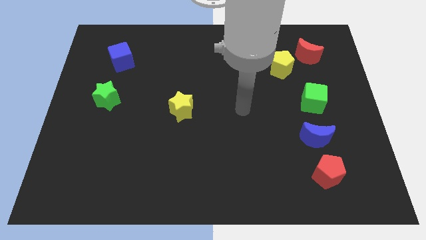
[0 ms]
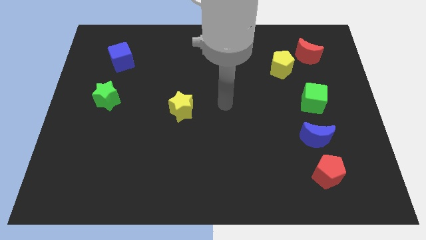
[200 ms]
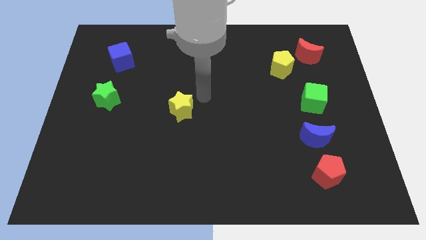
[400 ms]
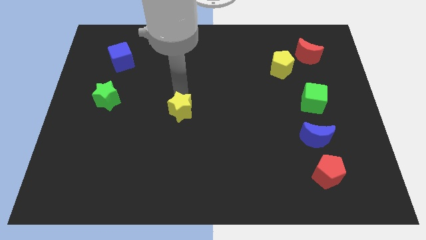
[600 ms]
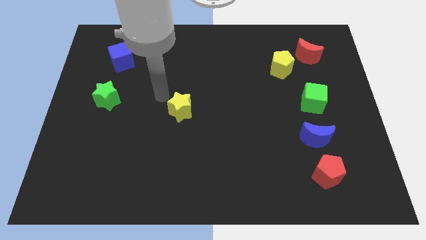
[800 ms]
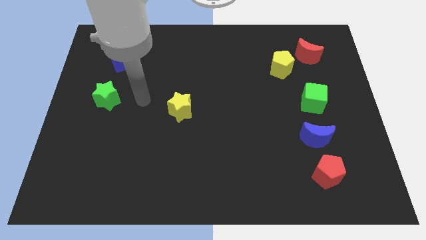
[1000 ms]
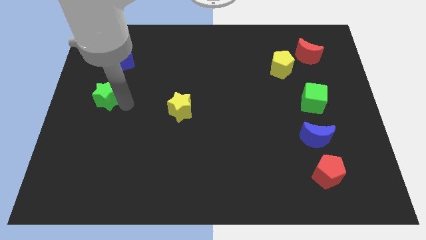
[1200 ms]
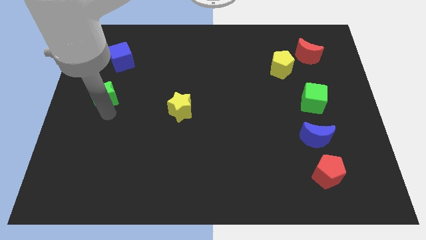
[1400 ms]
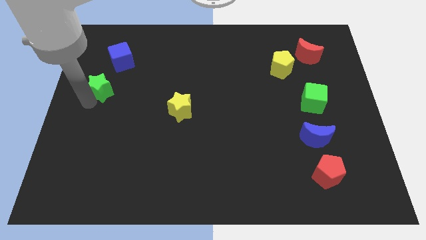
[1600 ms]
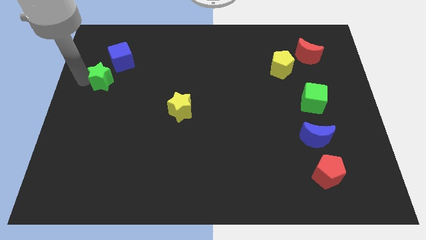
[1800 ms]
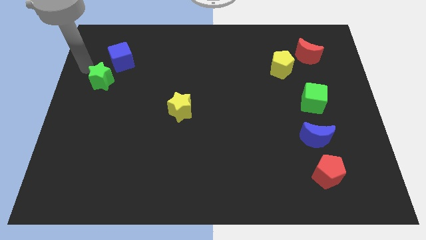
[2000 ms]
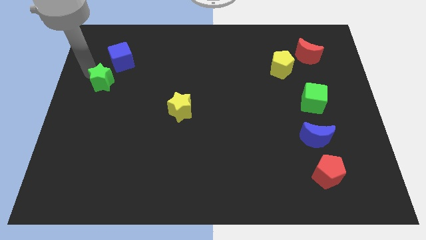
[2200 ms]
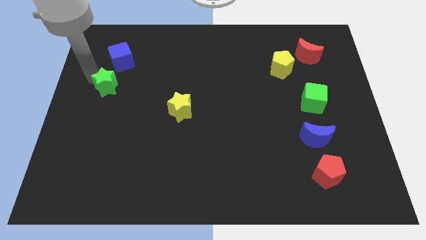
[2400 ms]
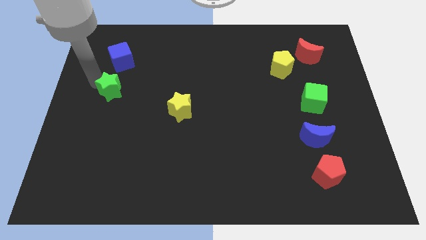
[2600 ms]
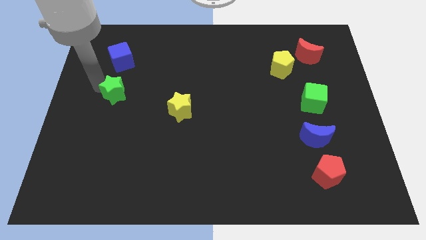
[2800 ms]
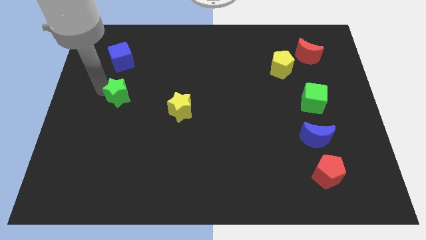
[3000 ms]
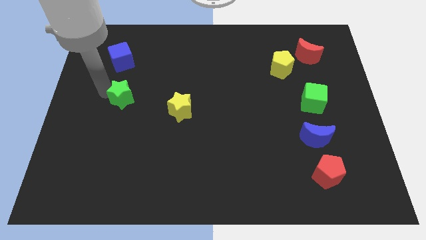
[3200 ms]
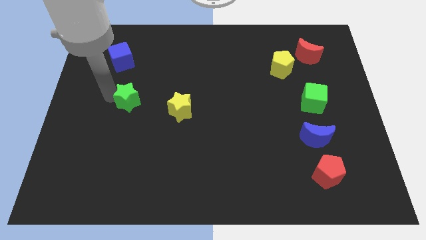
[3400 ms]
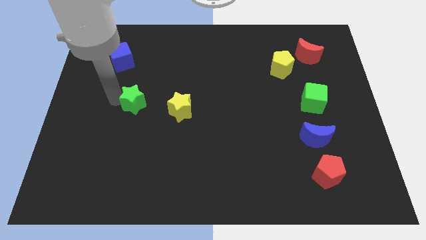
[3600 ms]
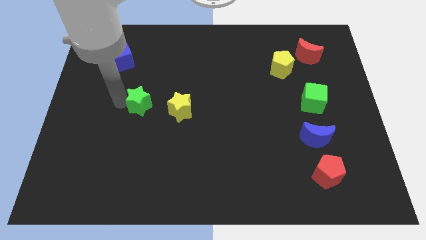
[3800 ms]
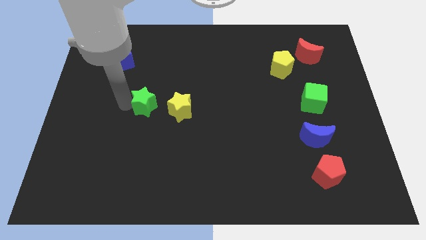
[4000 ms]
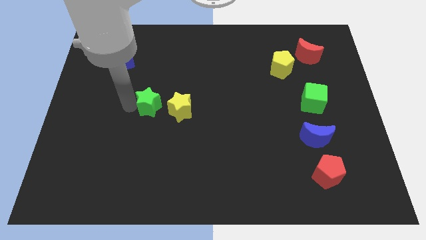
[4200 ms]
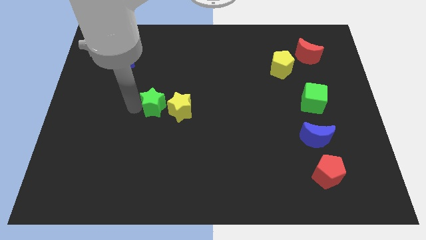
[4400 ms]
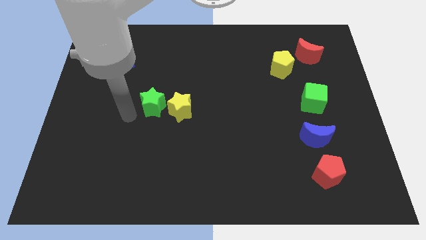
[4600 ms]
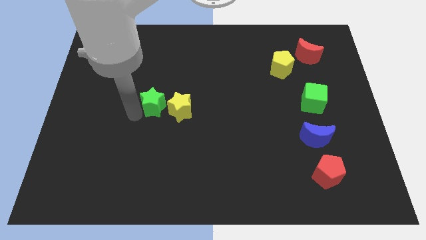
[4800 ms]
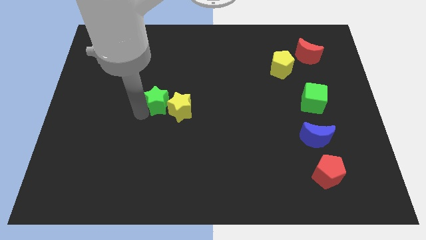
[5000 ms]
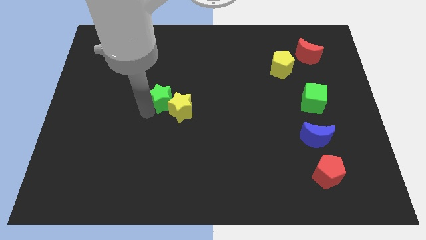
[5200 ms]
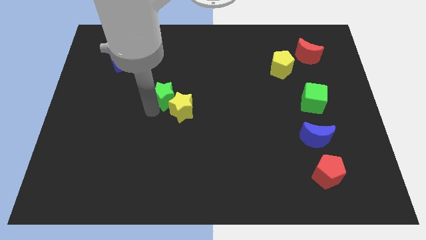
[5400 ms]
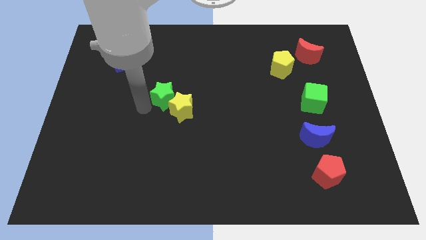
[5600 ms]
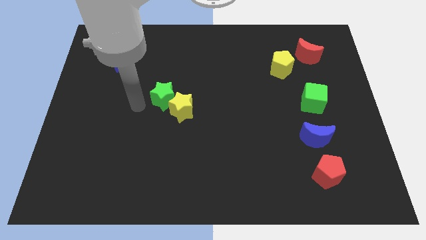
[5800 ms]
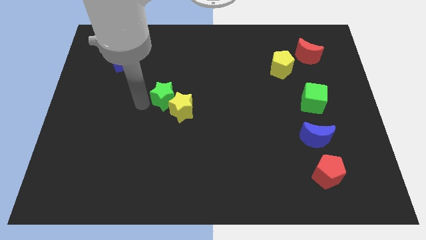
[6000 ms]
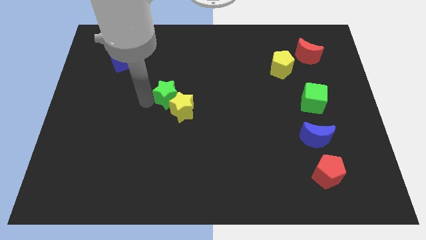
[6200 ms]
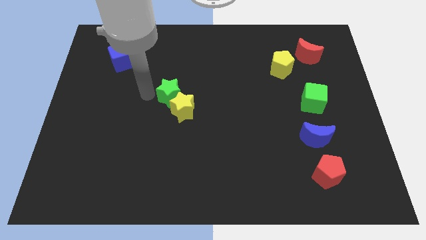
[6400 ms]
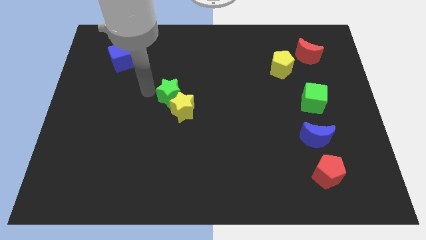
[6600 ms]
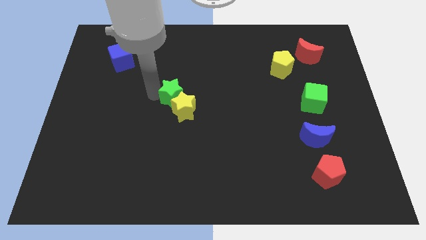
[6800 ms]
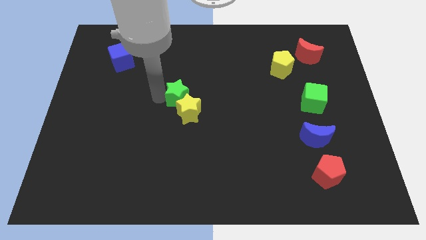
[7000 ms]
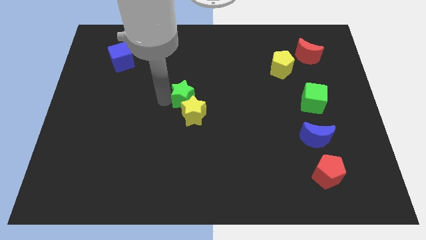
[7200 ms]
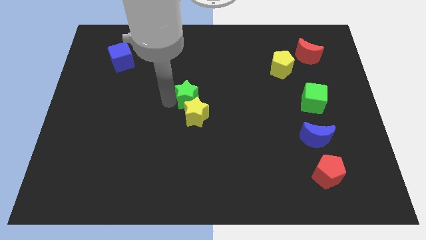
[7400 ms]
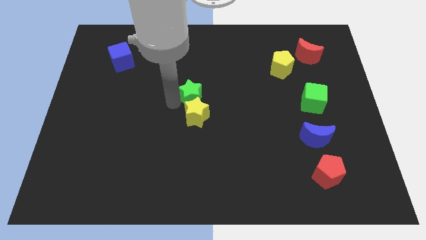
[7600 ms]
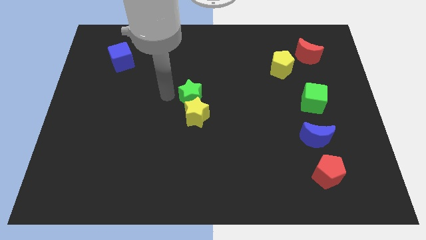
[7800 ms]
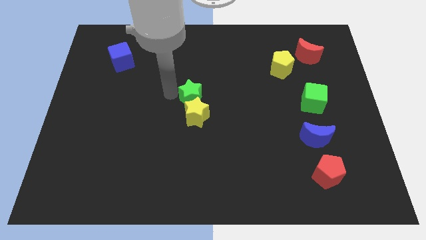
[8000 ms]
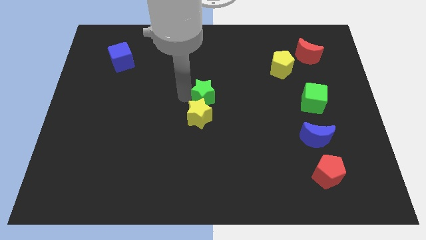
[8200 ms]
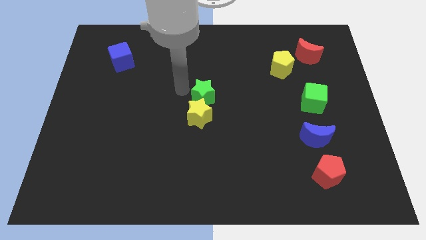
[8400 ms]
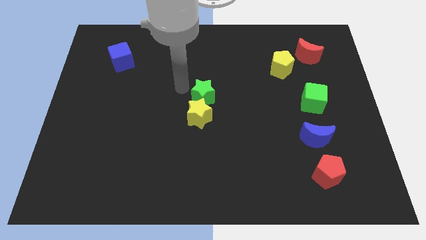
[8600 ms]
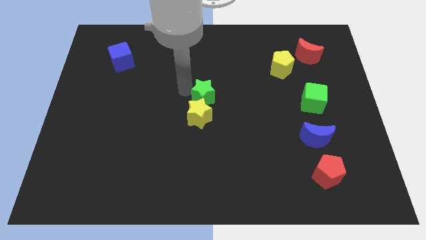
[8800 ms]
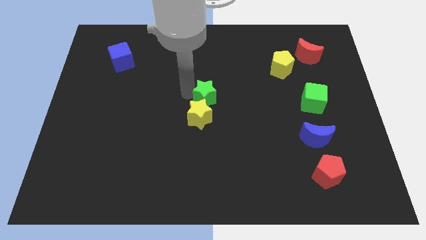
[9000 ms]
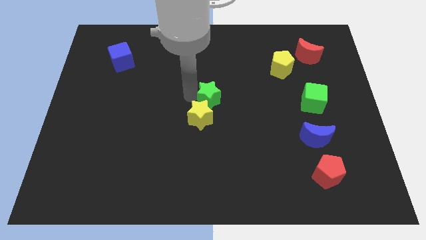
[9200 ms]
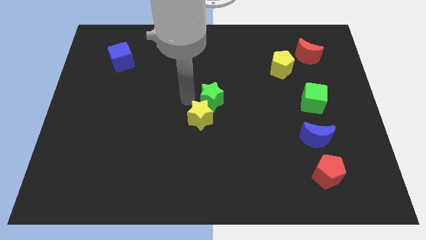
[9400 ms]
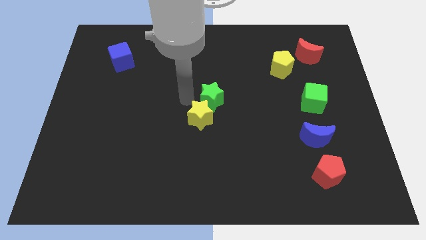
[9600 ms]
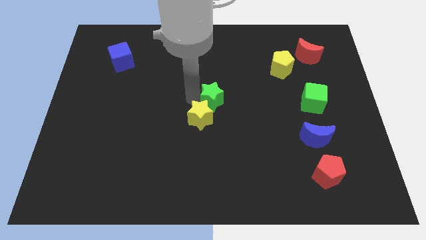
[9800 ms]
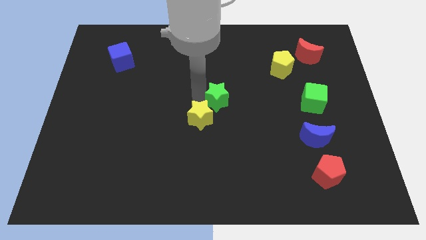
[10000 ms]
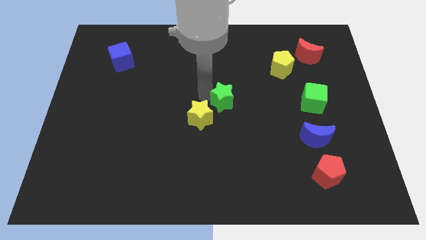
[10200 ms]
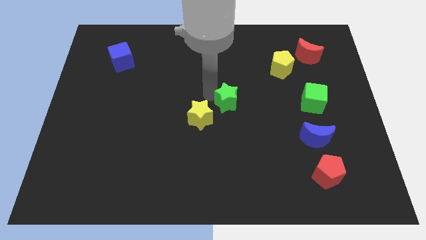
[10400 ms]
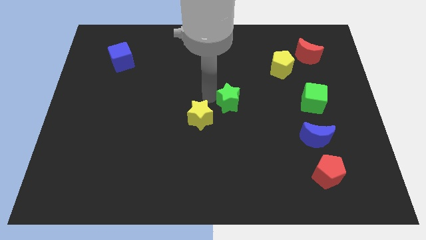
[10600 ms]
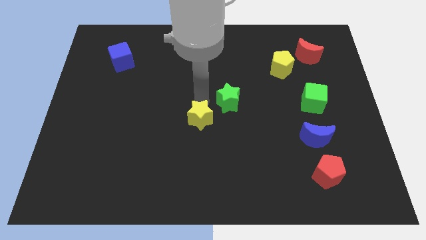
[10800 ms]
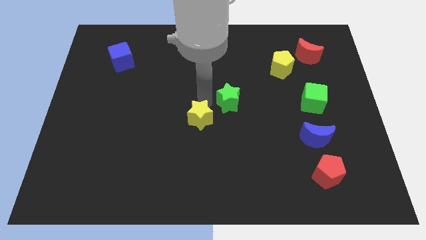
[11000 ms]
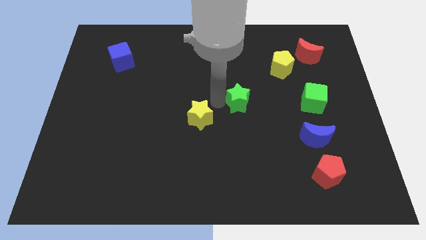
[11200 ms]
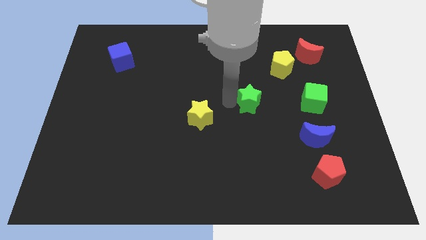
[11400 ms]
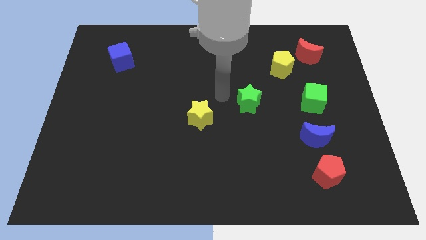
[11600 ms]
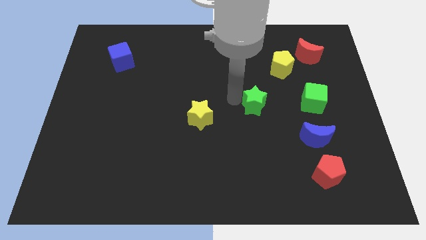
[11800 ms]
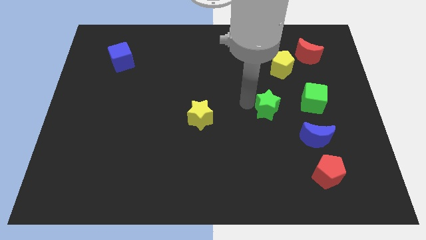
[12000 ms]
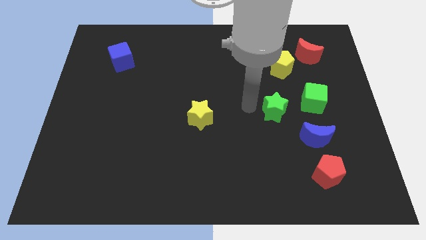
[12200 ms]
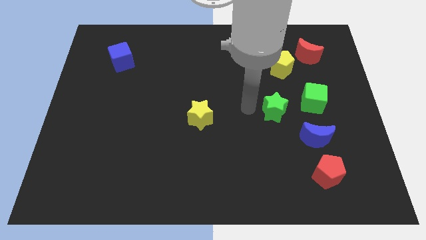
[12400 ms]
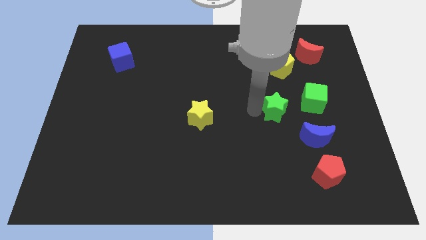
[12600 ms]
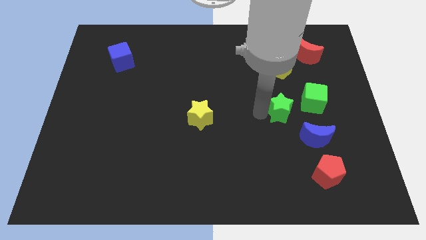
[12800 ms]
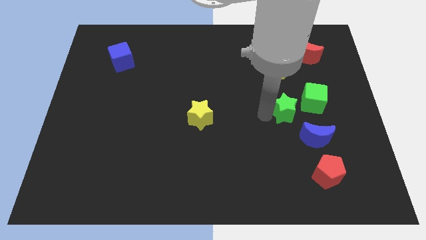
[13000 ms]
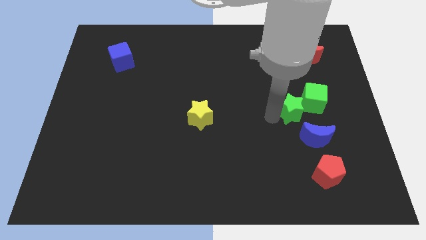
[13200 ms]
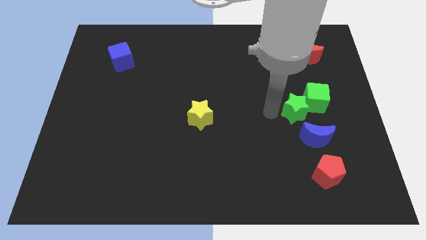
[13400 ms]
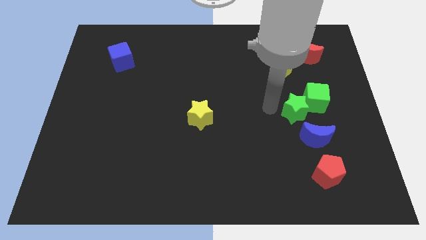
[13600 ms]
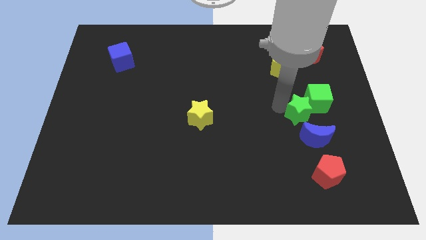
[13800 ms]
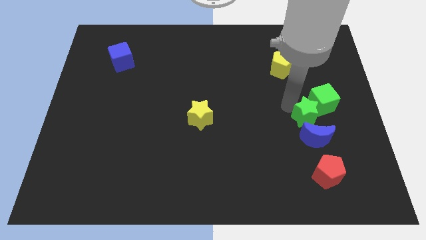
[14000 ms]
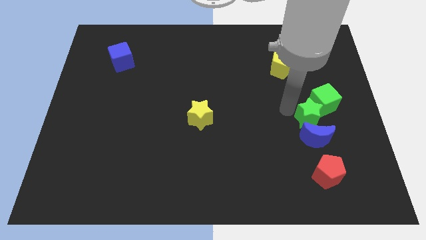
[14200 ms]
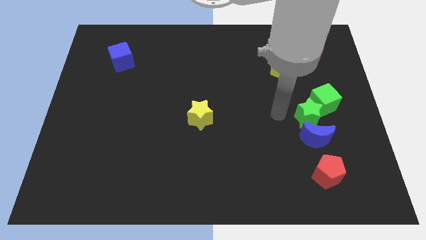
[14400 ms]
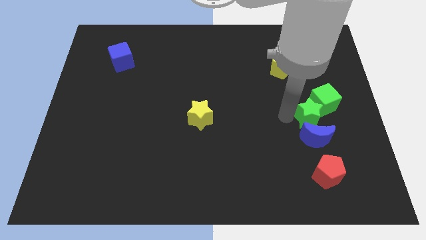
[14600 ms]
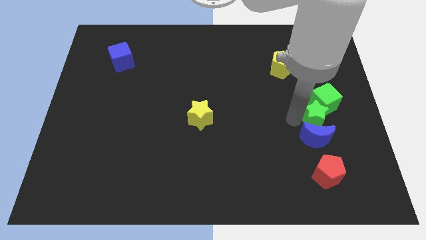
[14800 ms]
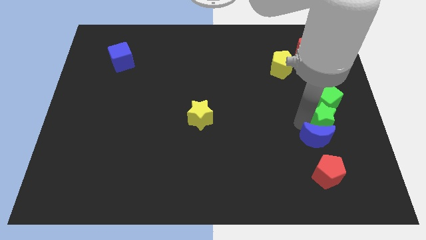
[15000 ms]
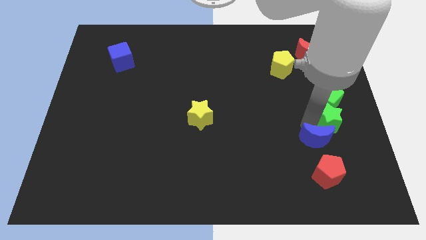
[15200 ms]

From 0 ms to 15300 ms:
push the green star to the bottom right of the green cube

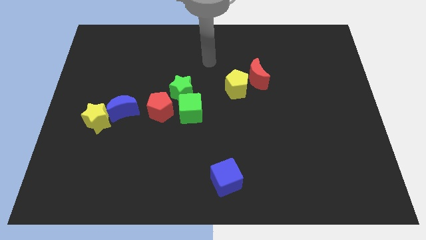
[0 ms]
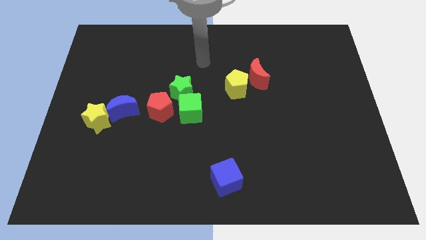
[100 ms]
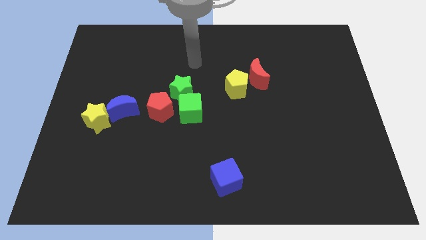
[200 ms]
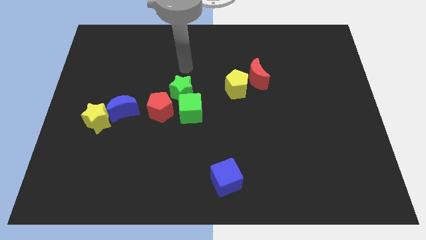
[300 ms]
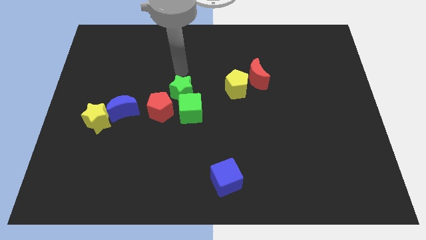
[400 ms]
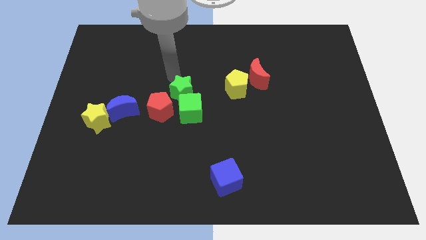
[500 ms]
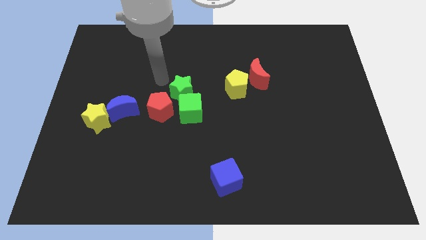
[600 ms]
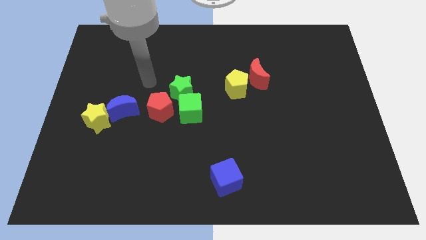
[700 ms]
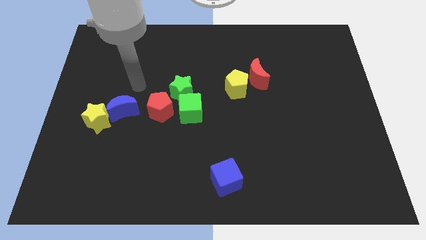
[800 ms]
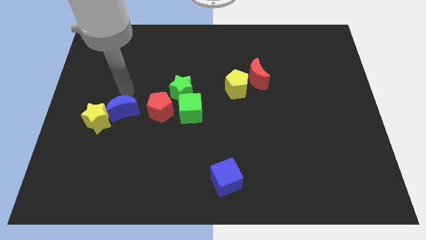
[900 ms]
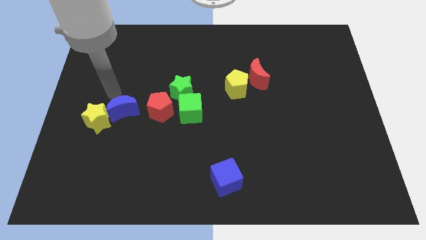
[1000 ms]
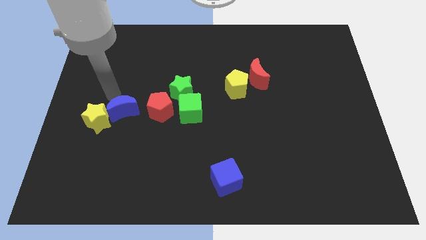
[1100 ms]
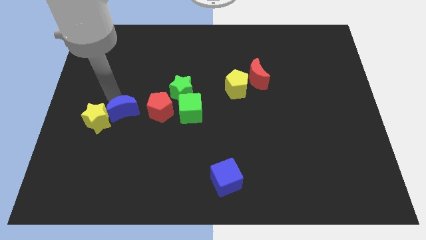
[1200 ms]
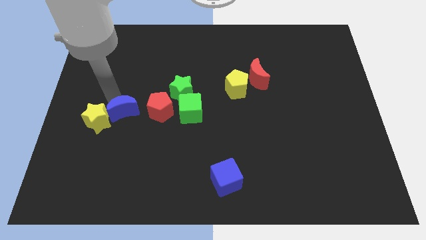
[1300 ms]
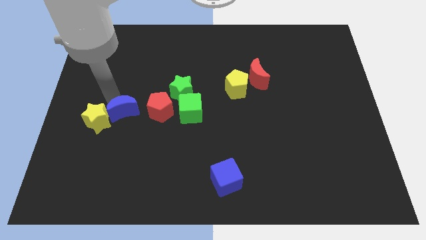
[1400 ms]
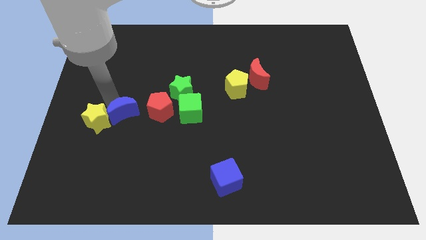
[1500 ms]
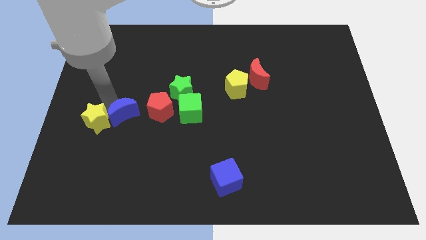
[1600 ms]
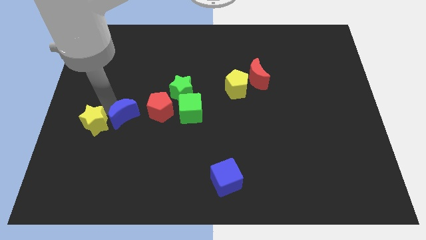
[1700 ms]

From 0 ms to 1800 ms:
move the blue moon to the bottom left of the red pentagon
